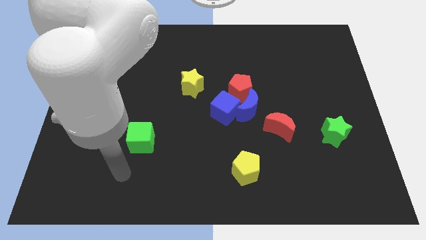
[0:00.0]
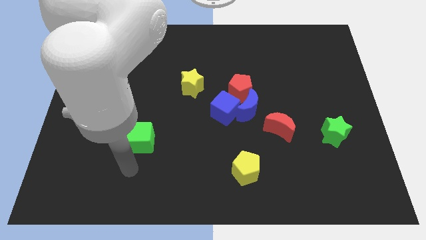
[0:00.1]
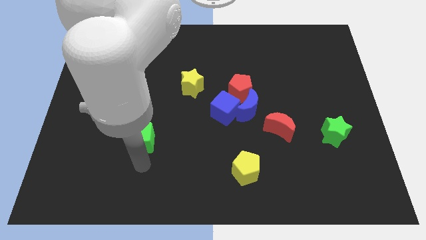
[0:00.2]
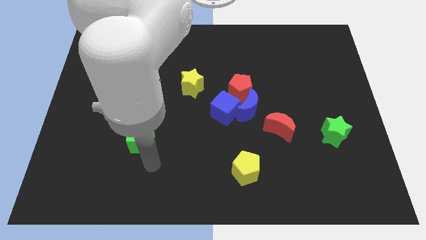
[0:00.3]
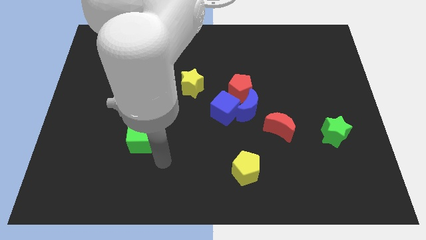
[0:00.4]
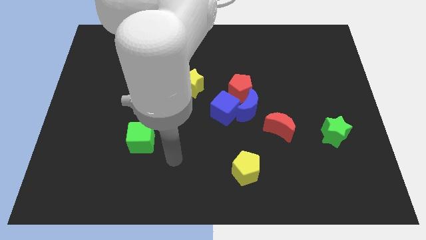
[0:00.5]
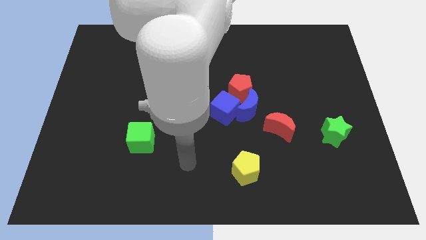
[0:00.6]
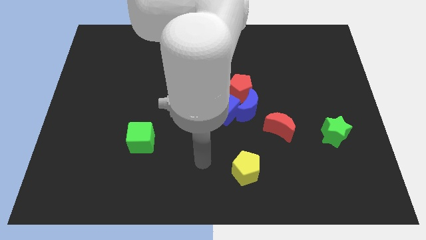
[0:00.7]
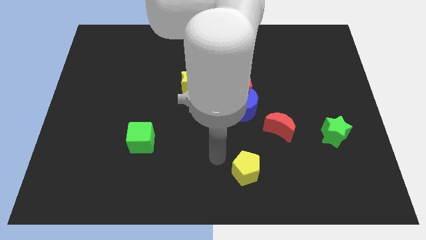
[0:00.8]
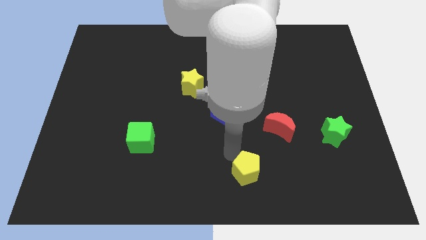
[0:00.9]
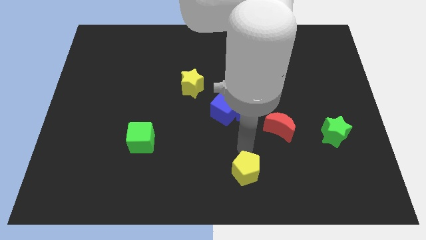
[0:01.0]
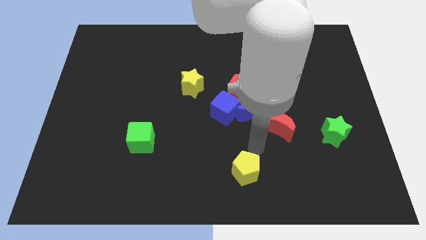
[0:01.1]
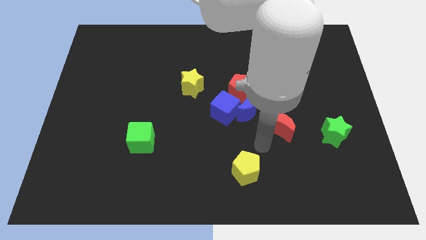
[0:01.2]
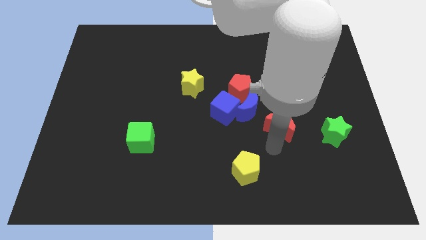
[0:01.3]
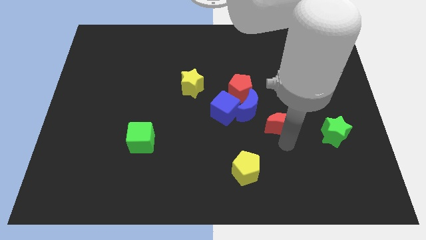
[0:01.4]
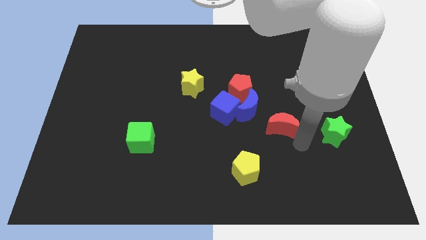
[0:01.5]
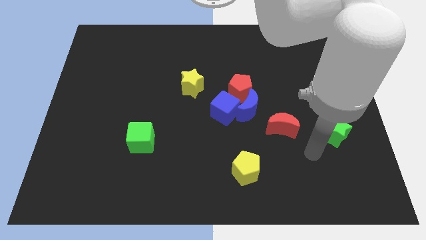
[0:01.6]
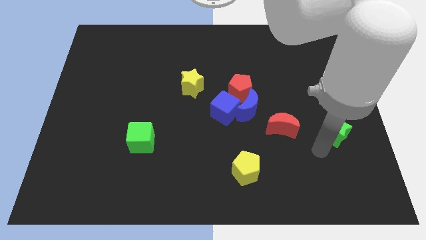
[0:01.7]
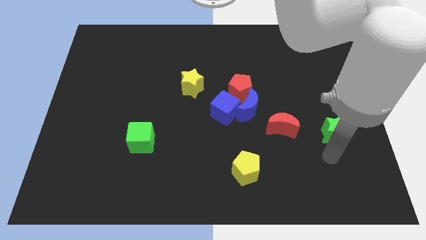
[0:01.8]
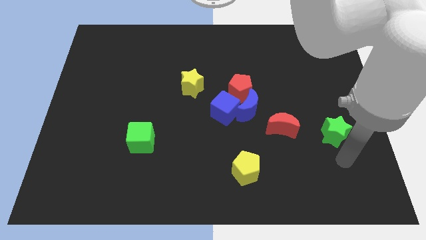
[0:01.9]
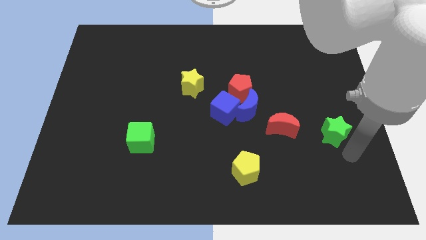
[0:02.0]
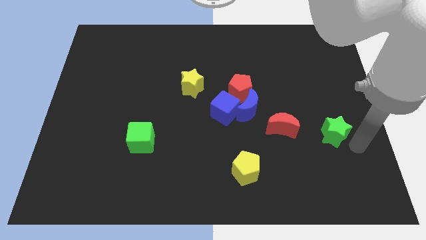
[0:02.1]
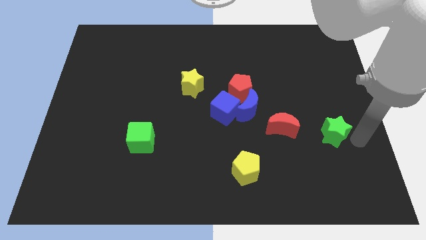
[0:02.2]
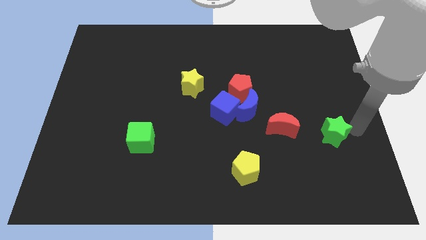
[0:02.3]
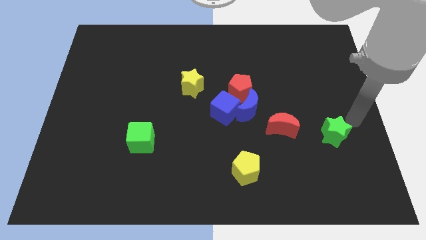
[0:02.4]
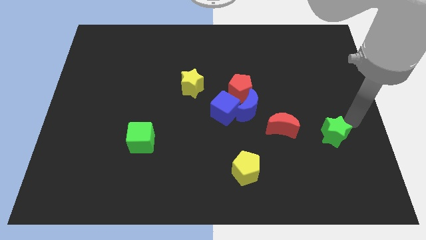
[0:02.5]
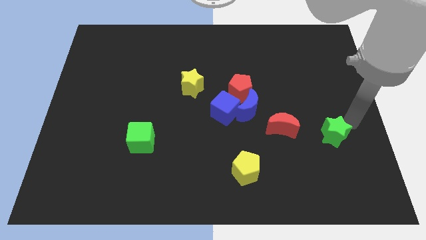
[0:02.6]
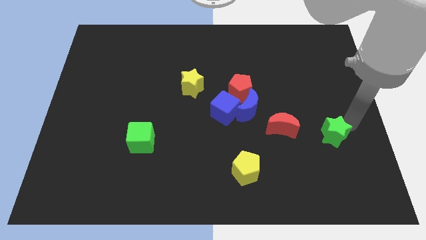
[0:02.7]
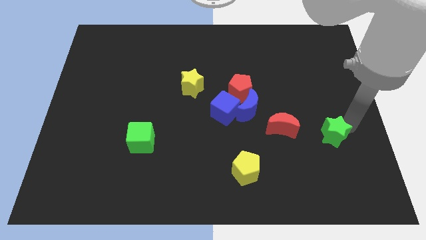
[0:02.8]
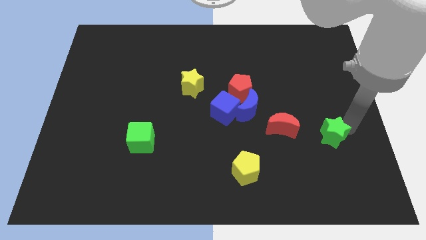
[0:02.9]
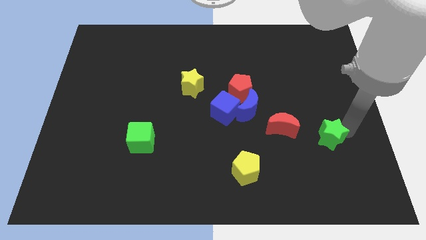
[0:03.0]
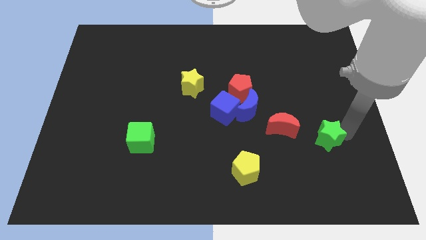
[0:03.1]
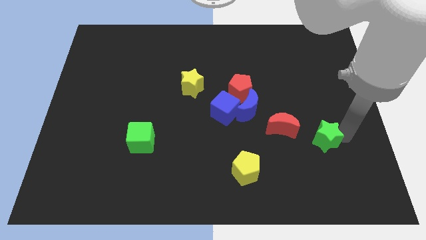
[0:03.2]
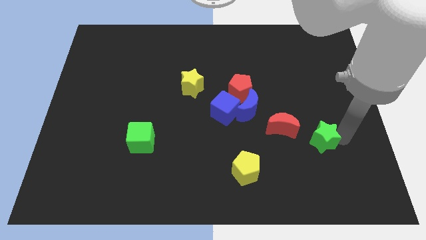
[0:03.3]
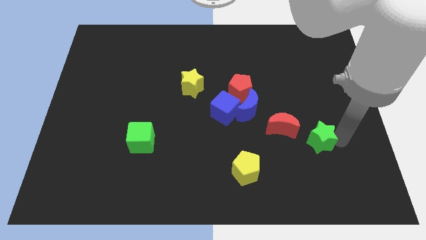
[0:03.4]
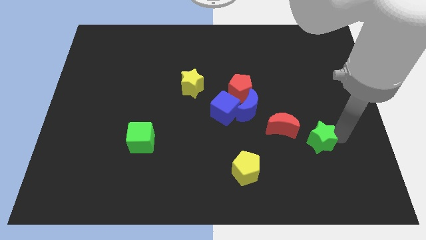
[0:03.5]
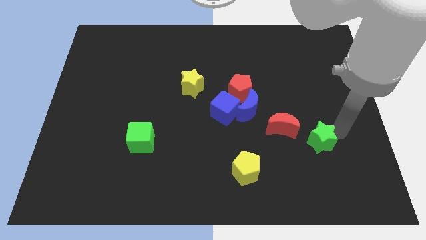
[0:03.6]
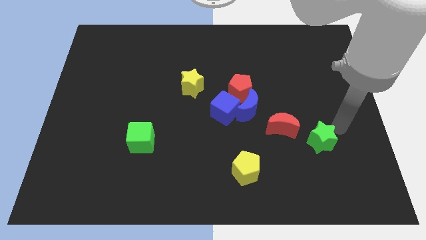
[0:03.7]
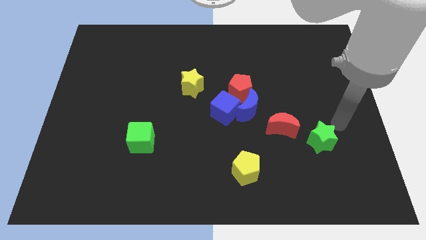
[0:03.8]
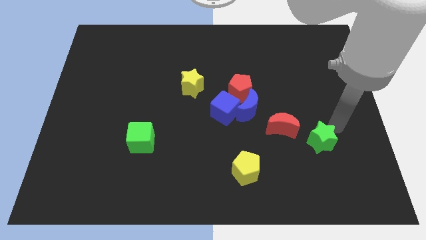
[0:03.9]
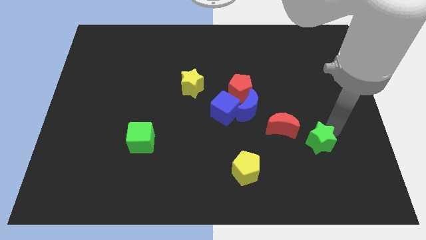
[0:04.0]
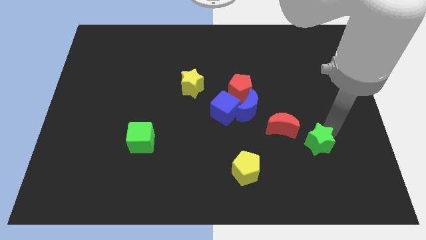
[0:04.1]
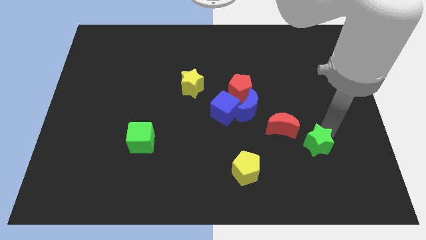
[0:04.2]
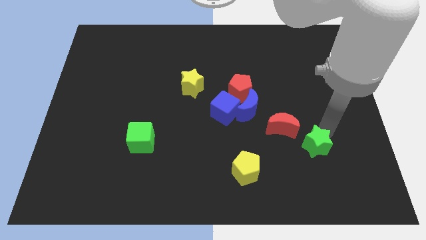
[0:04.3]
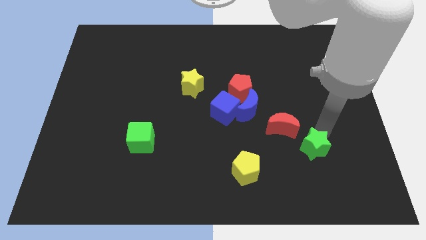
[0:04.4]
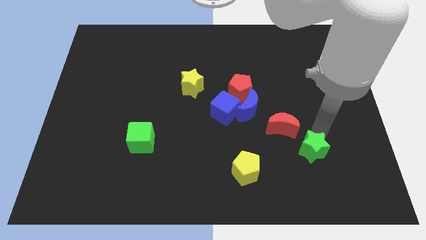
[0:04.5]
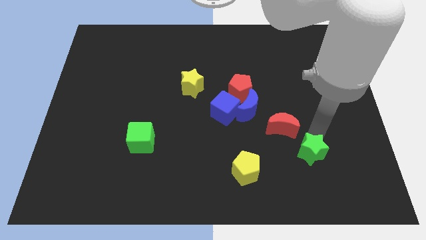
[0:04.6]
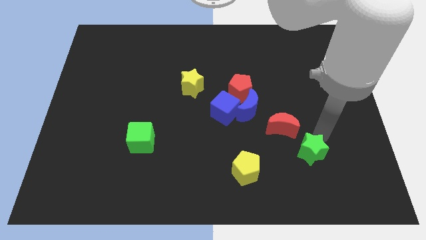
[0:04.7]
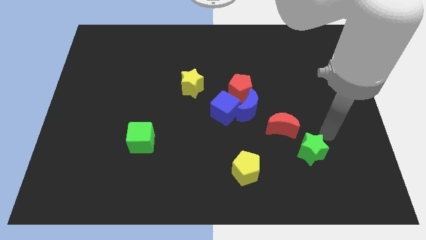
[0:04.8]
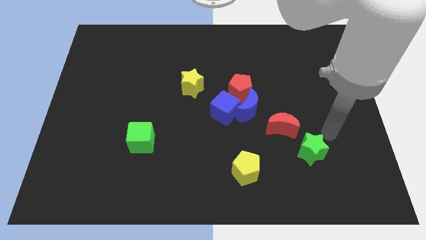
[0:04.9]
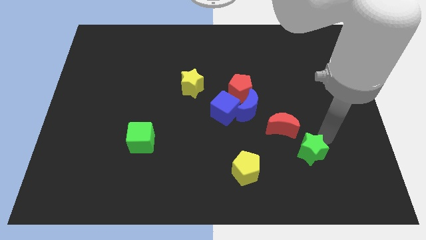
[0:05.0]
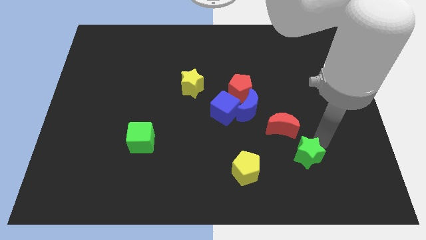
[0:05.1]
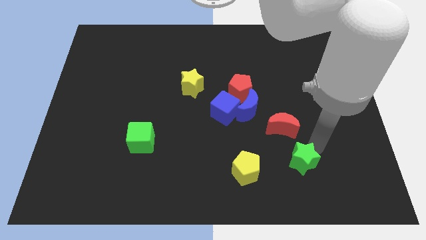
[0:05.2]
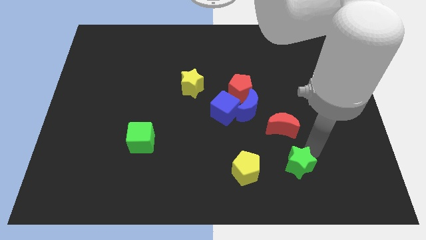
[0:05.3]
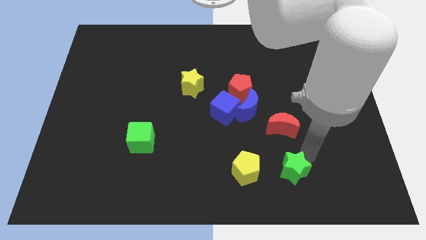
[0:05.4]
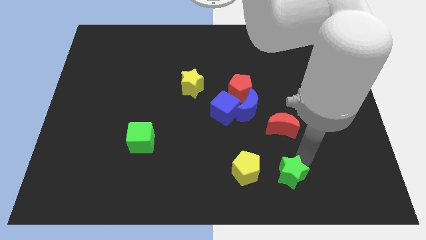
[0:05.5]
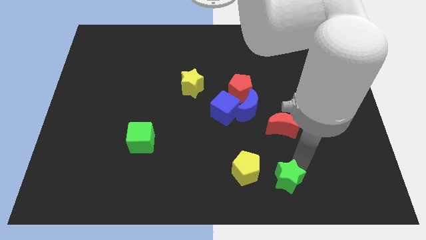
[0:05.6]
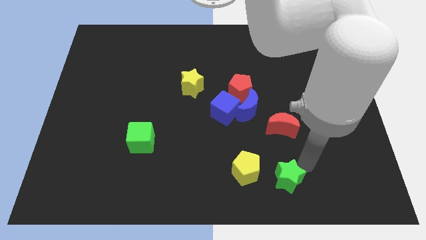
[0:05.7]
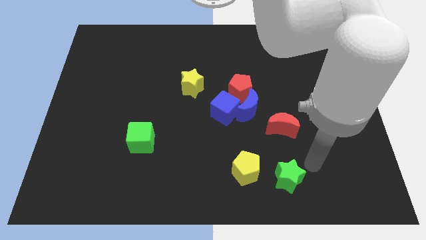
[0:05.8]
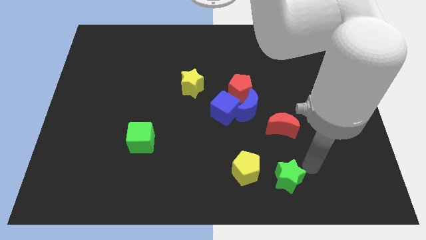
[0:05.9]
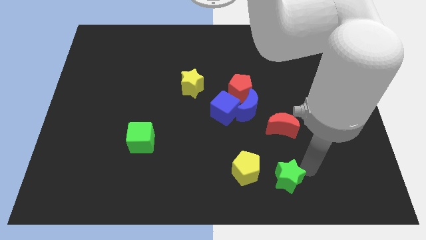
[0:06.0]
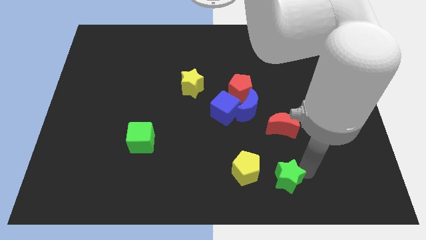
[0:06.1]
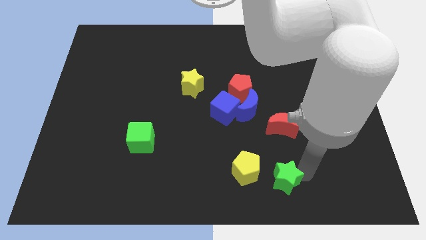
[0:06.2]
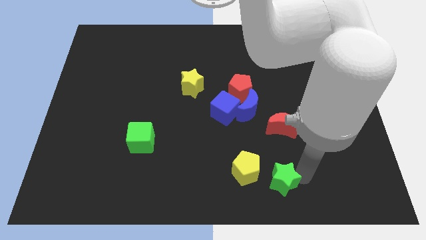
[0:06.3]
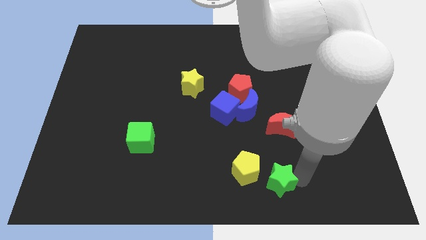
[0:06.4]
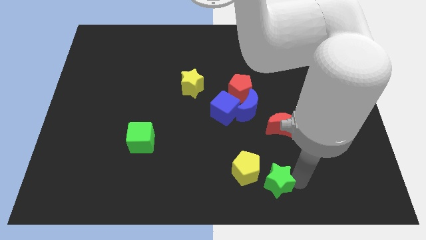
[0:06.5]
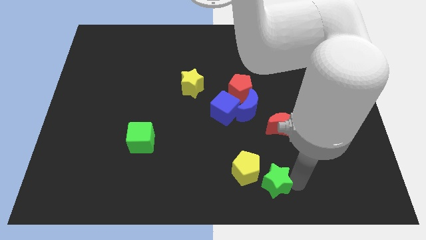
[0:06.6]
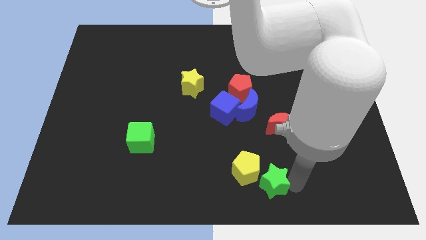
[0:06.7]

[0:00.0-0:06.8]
push the green star to the bottom
